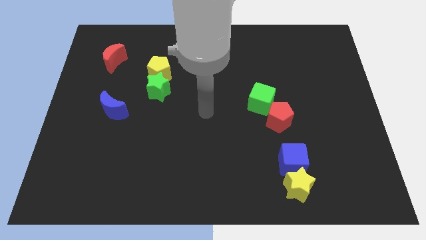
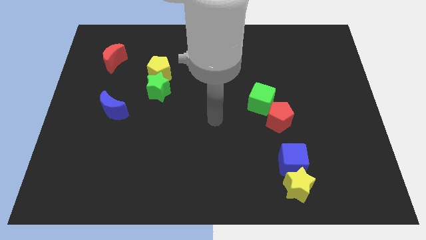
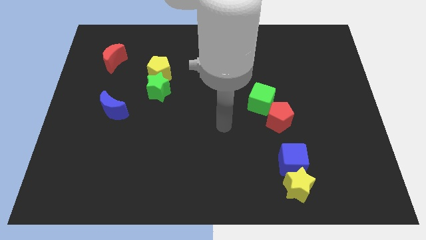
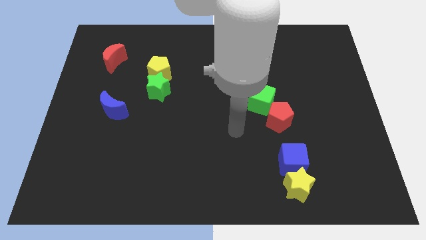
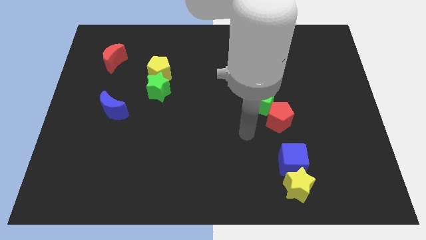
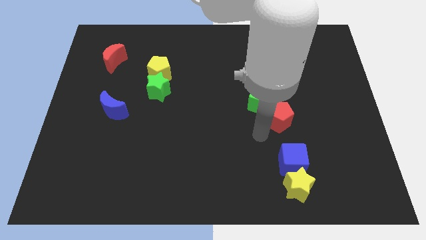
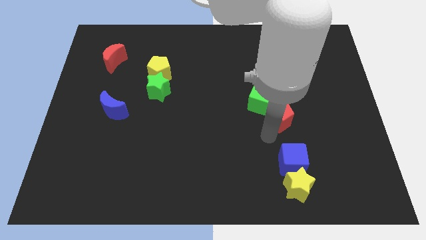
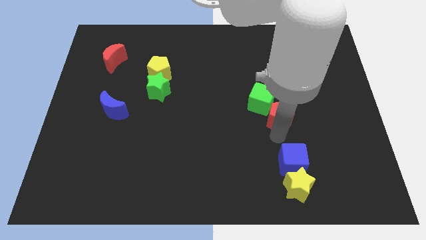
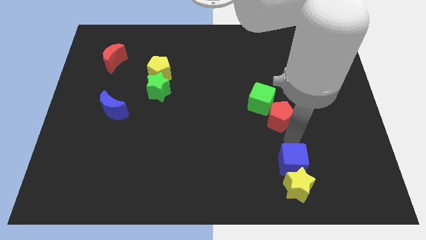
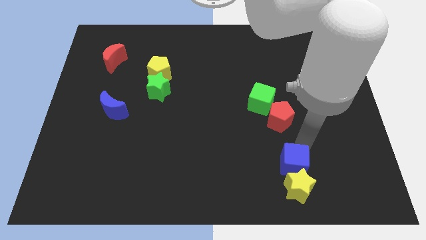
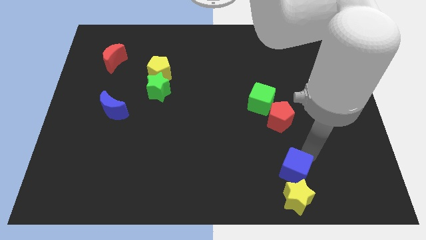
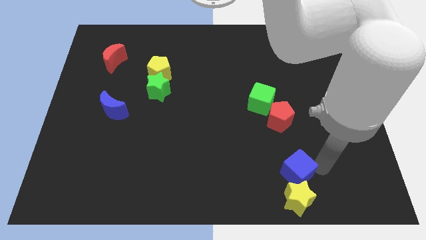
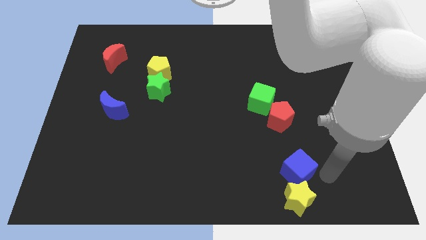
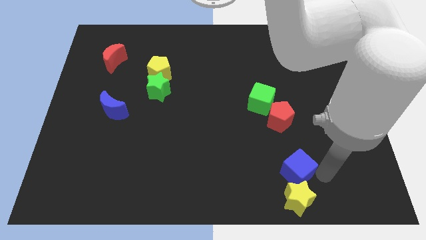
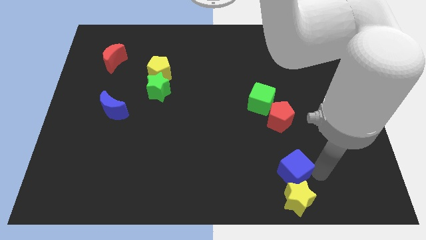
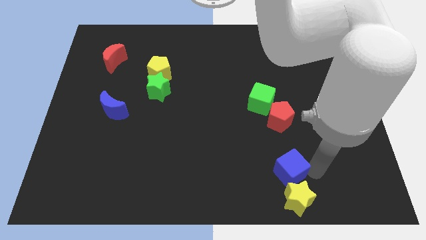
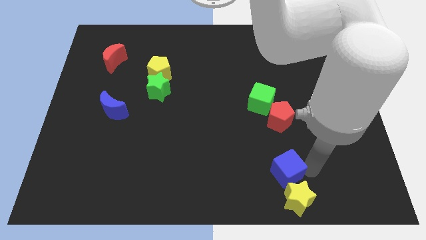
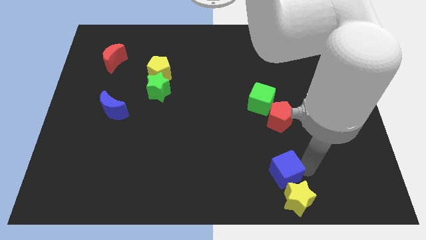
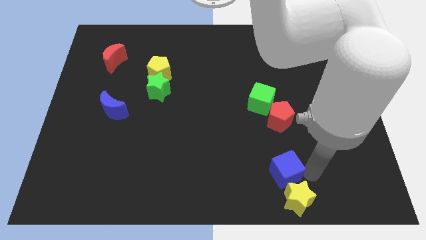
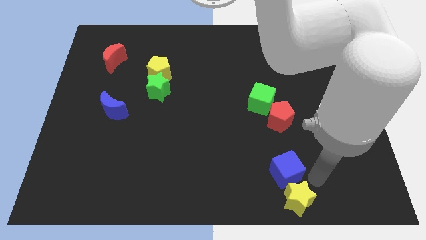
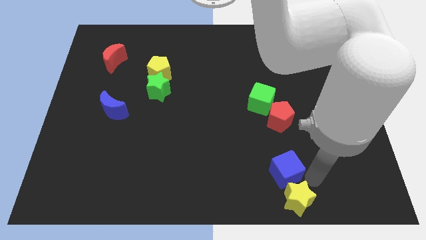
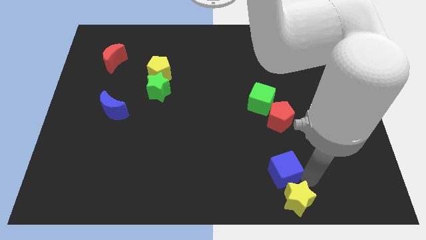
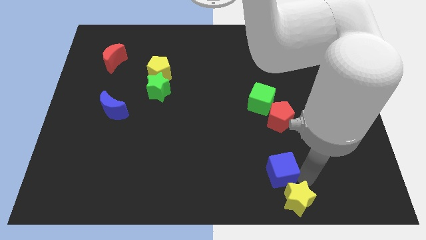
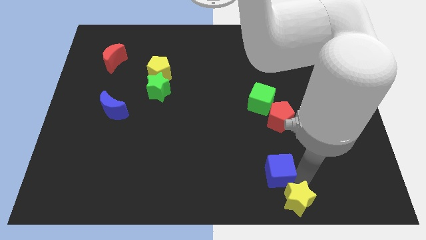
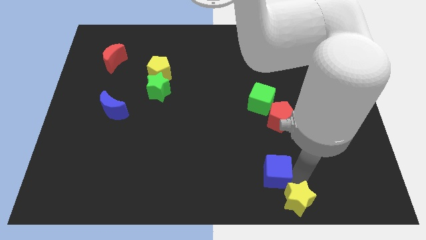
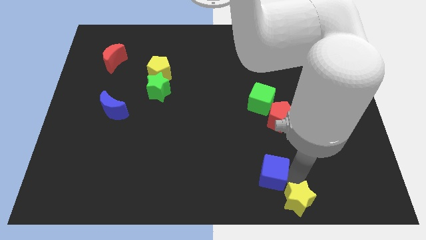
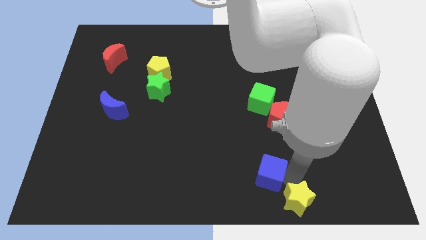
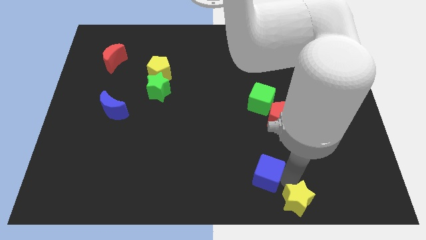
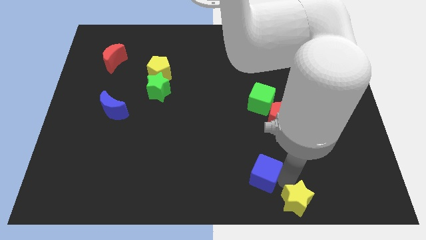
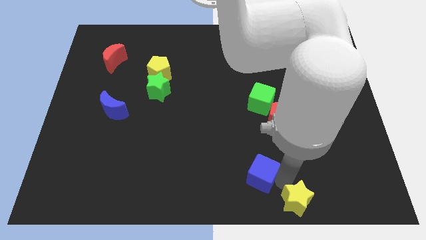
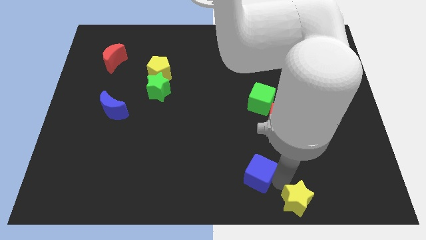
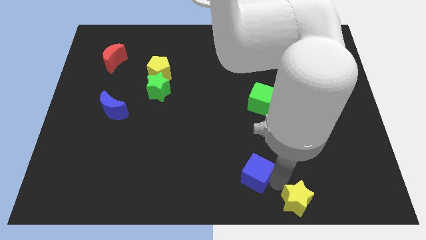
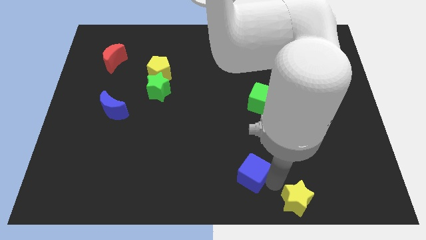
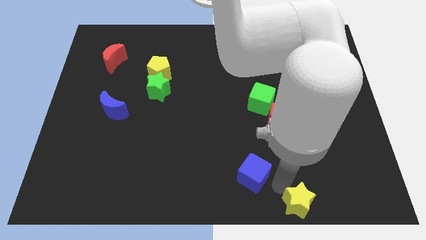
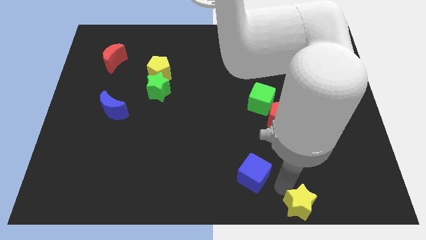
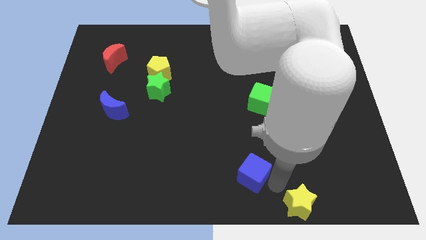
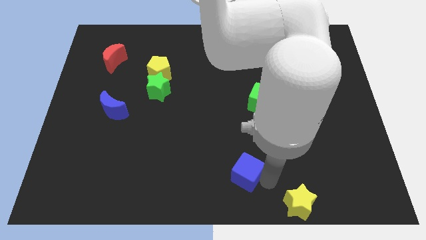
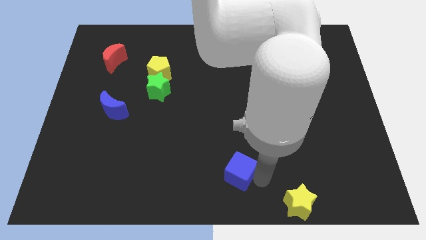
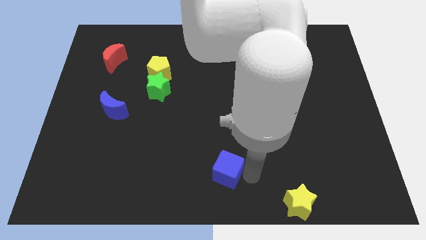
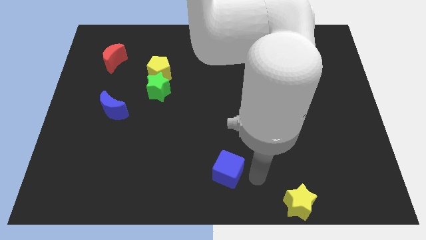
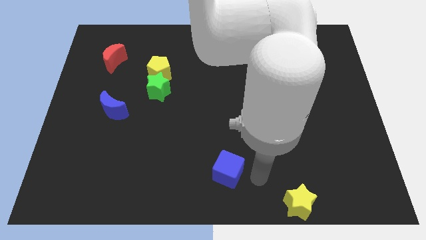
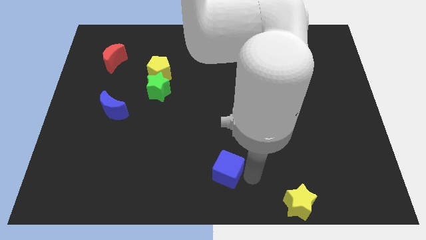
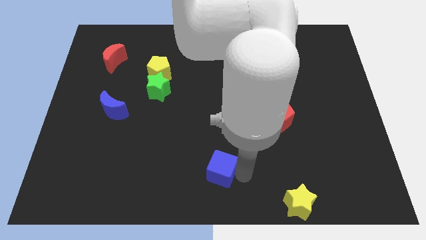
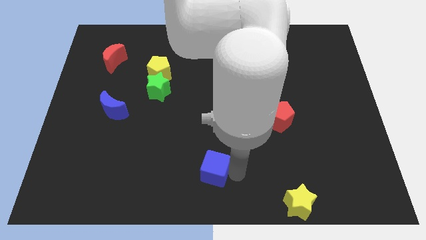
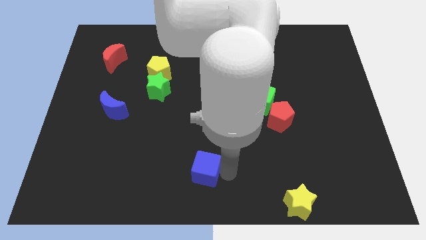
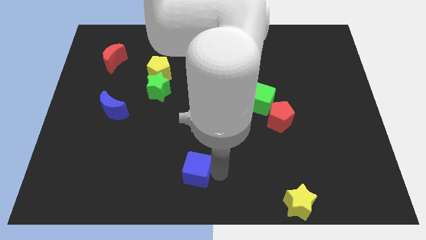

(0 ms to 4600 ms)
slide the blue cube to the left

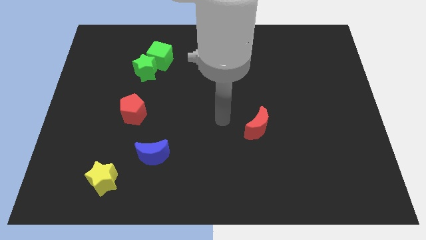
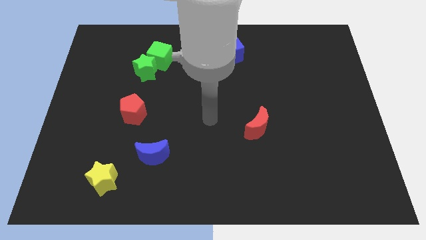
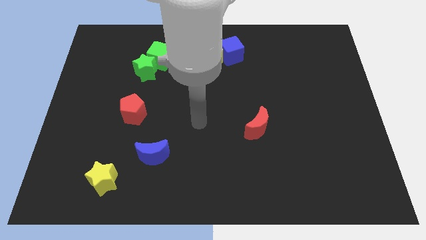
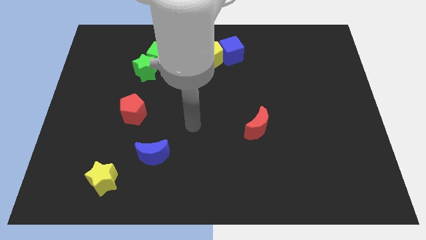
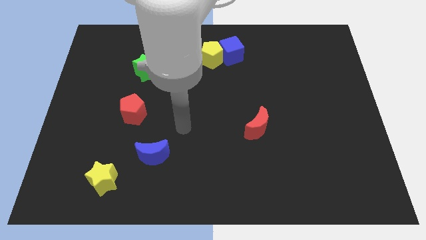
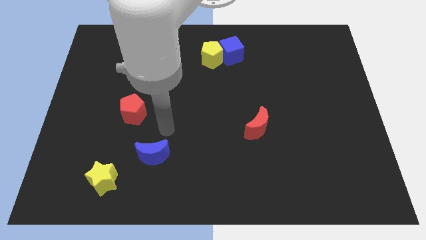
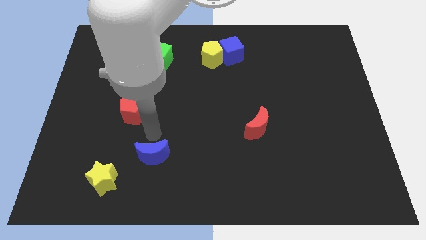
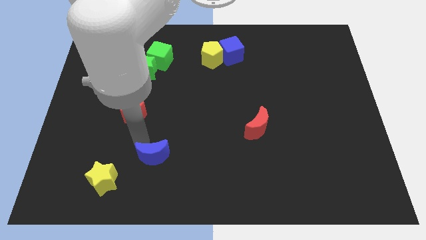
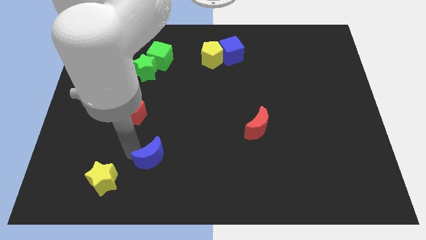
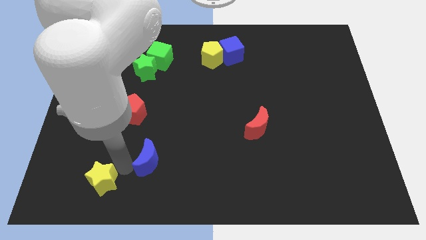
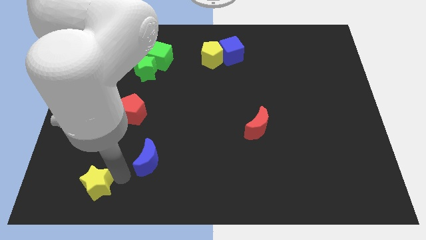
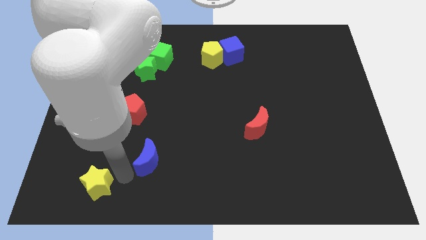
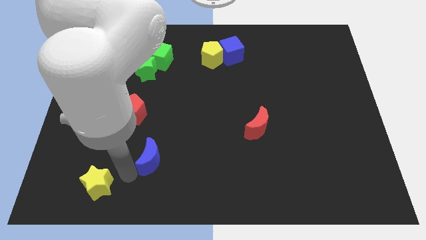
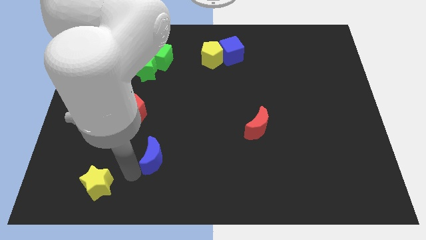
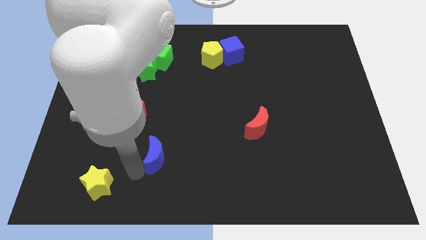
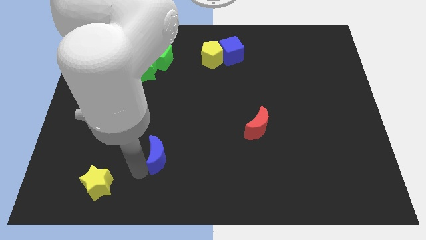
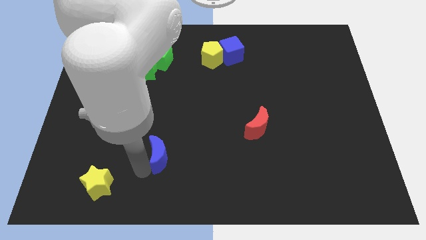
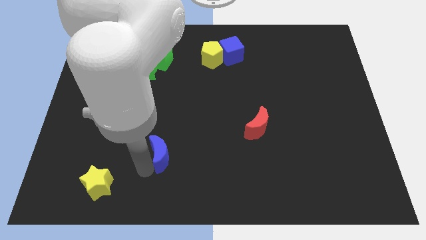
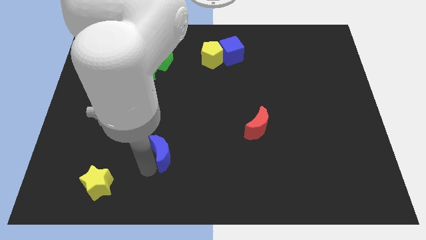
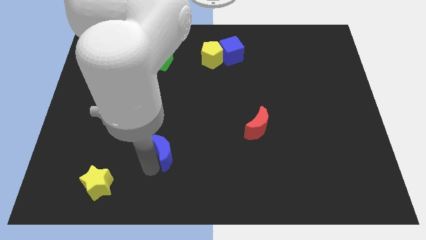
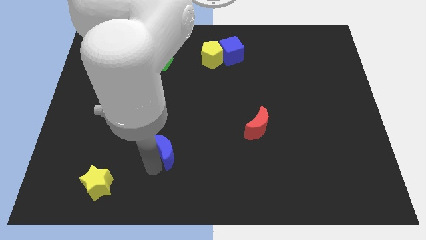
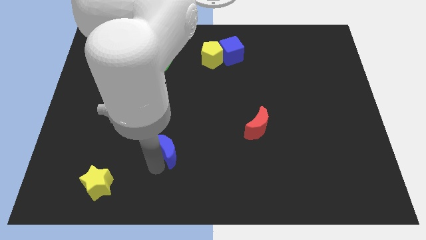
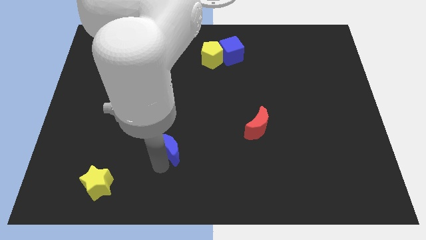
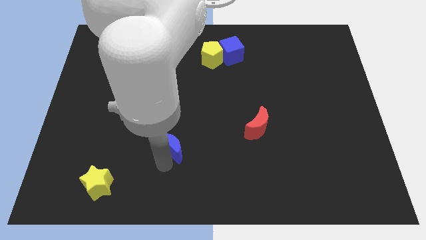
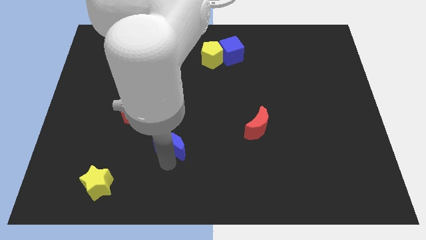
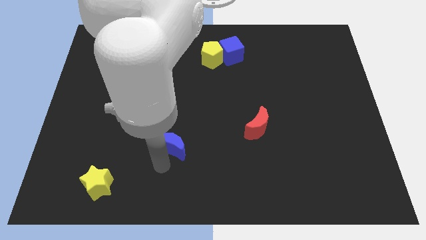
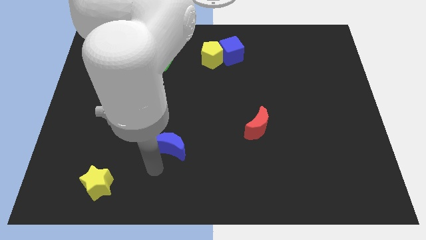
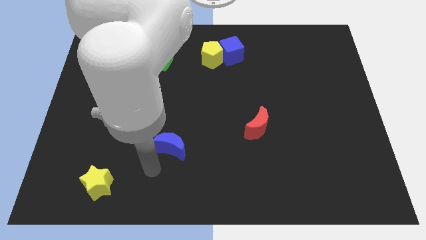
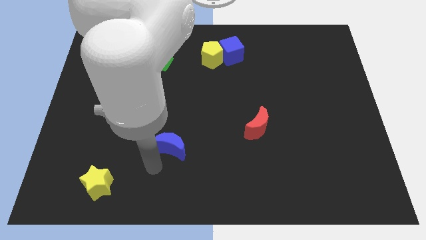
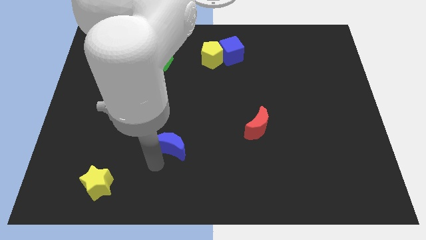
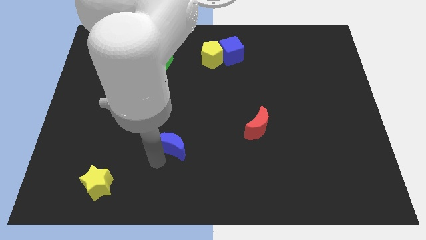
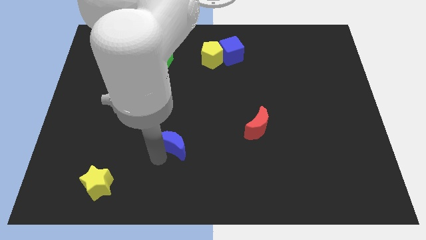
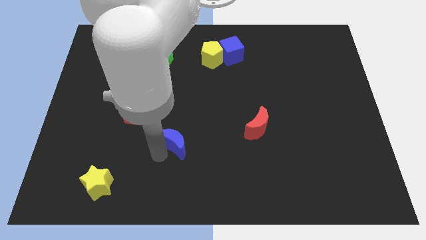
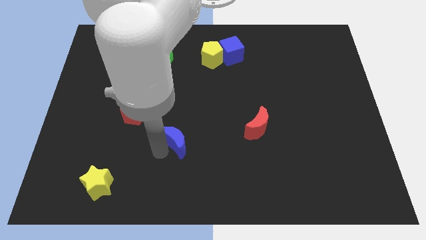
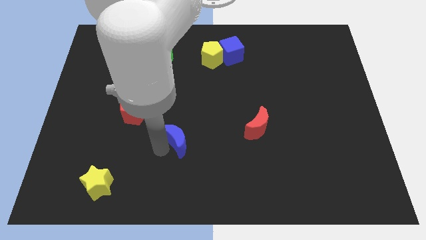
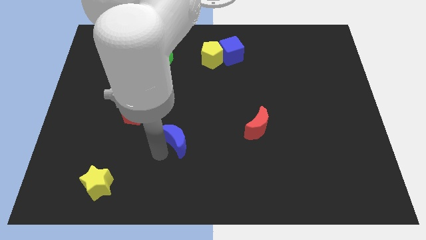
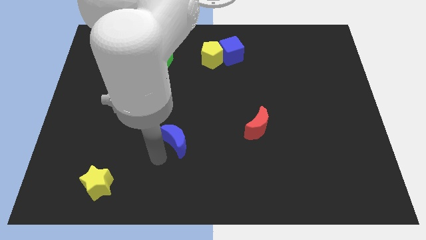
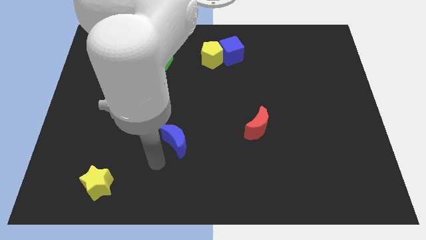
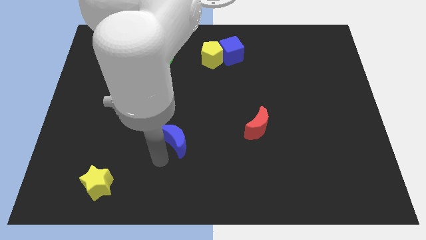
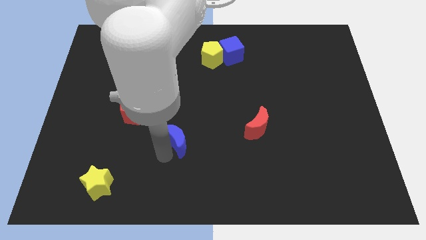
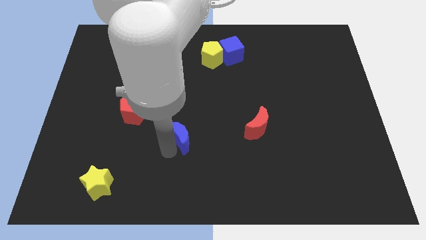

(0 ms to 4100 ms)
slightly move the blue moon upwards and right diagonally
